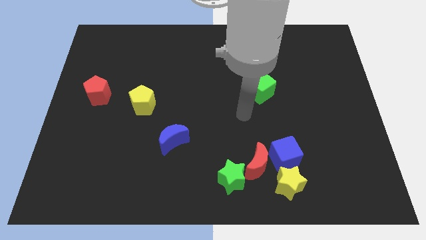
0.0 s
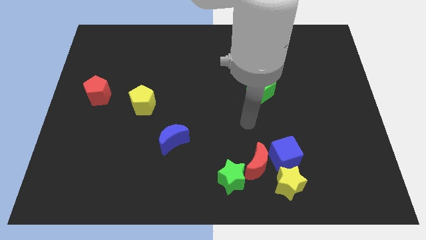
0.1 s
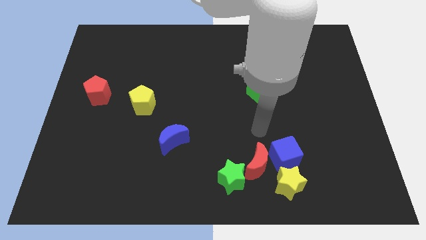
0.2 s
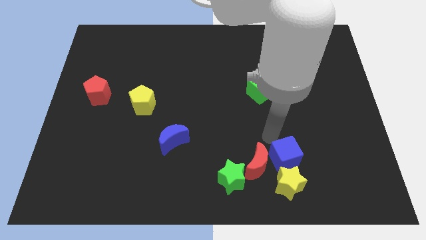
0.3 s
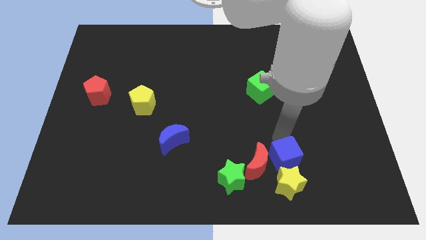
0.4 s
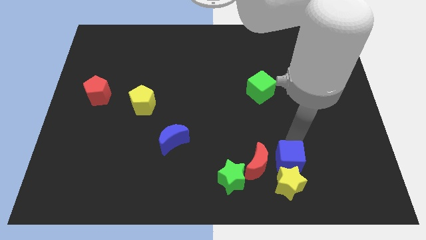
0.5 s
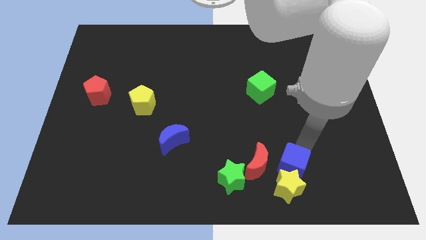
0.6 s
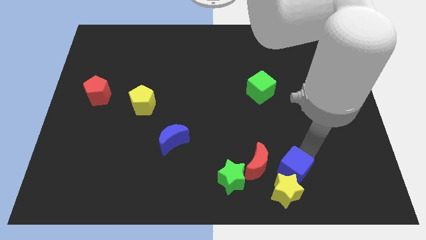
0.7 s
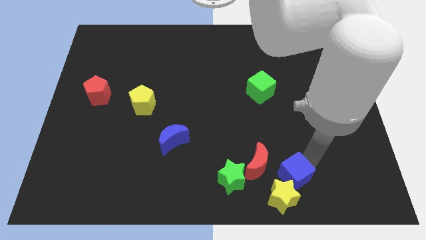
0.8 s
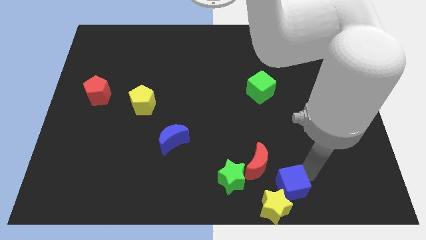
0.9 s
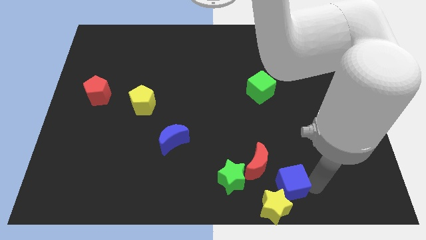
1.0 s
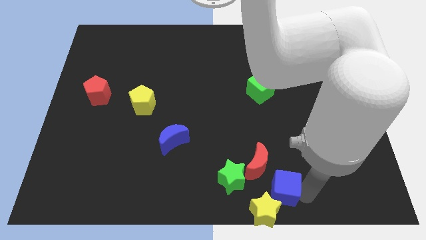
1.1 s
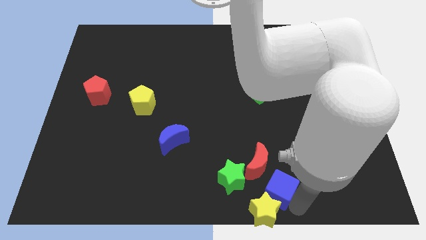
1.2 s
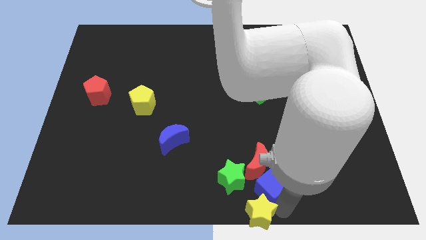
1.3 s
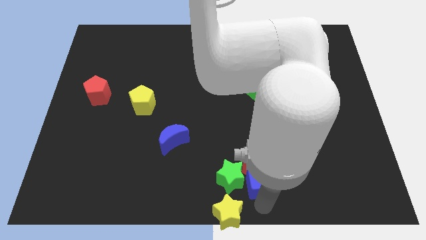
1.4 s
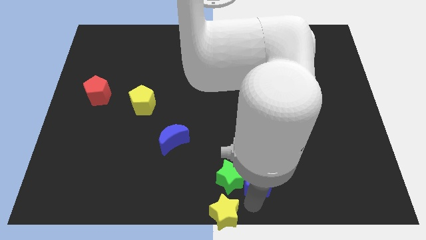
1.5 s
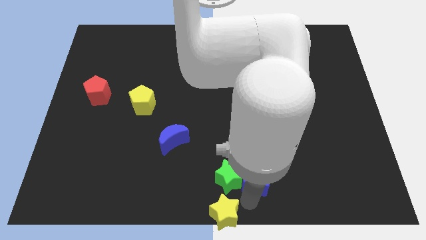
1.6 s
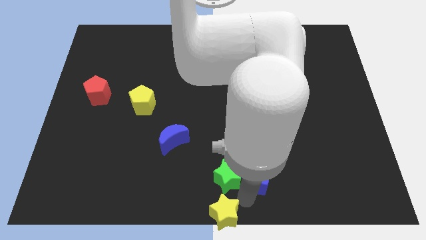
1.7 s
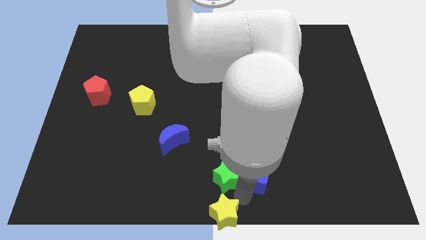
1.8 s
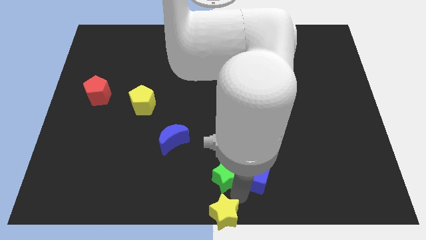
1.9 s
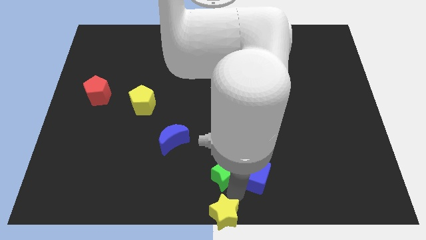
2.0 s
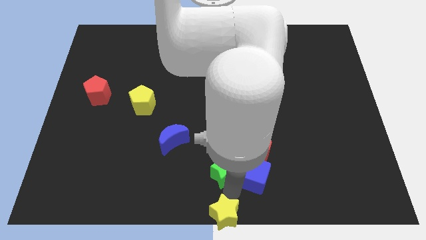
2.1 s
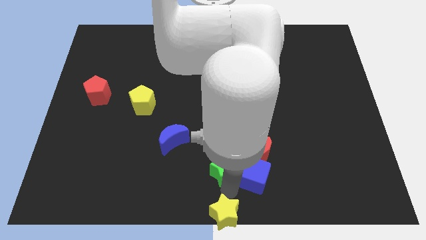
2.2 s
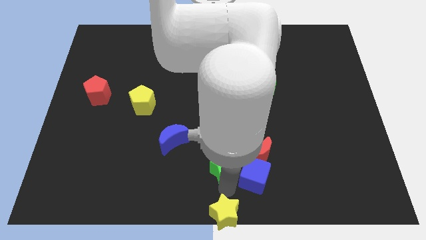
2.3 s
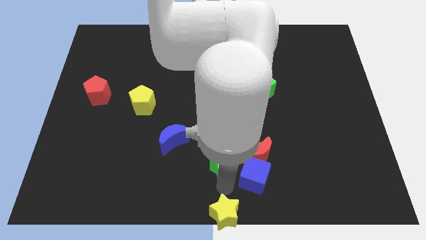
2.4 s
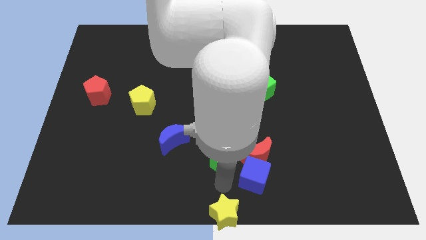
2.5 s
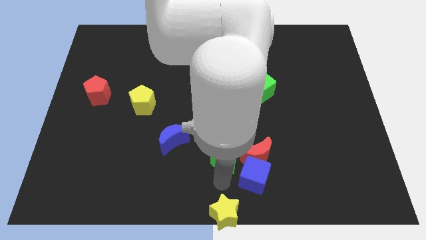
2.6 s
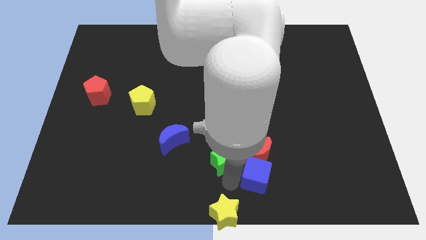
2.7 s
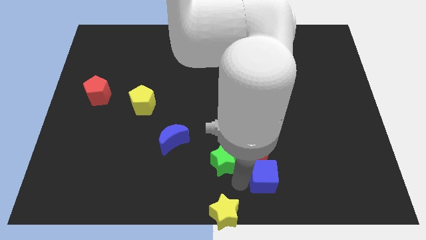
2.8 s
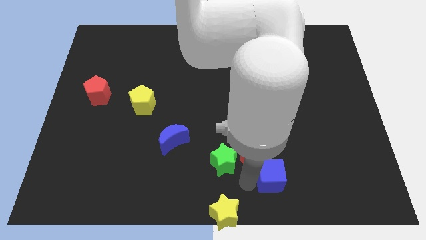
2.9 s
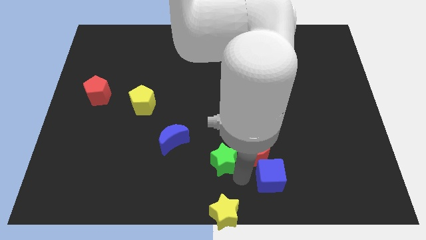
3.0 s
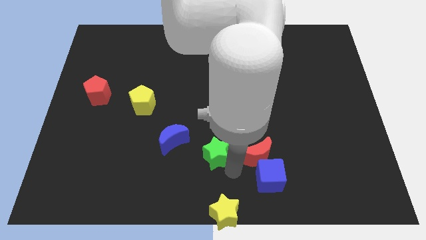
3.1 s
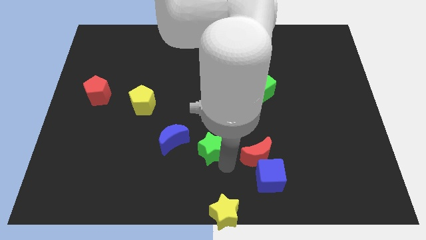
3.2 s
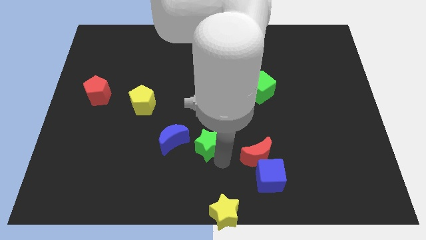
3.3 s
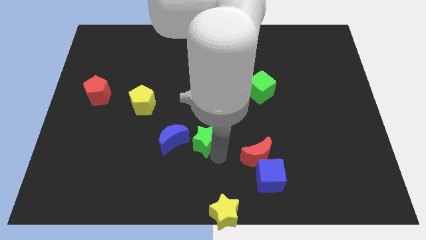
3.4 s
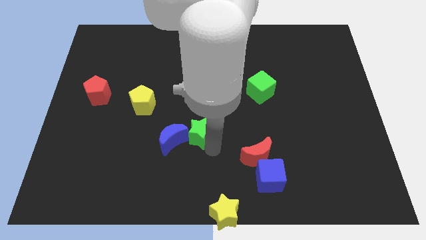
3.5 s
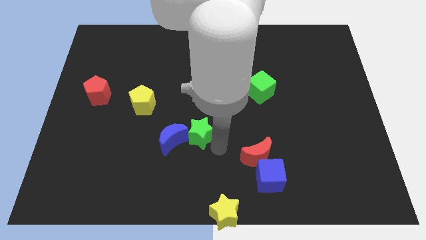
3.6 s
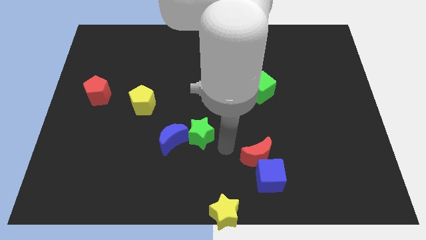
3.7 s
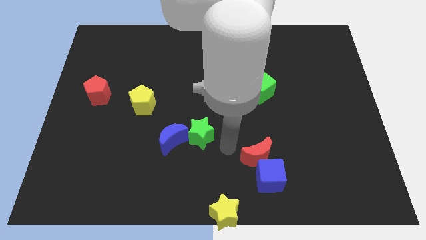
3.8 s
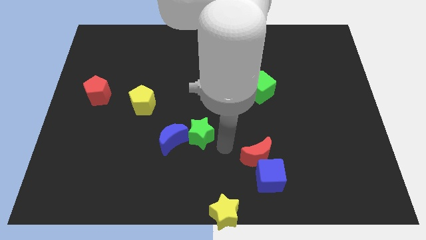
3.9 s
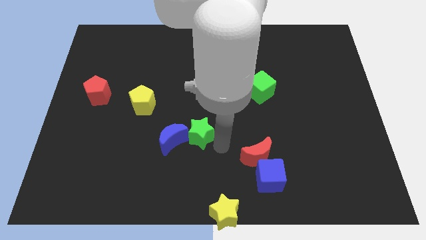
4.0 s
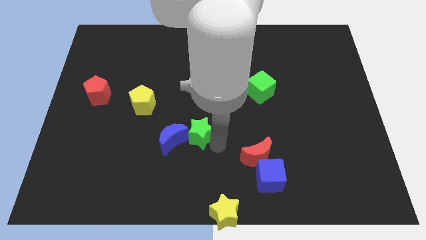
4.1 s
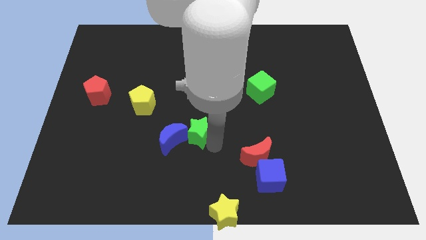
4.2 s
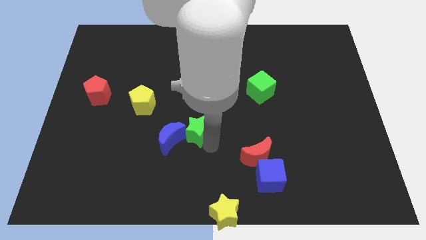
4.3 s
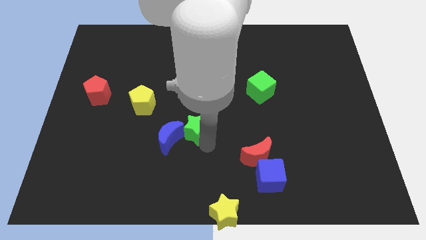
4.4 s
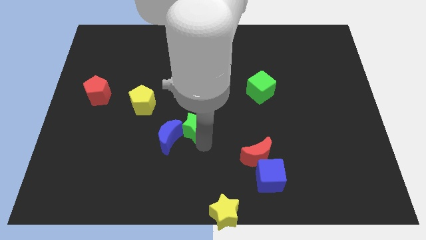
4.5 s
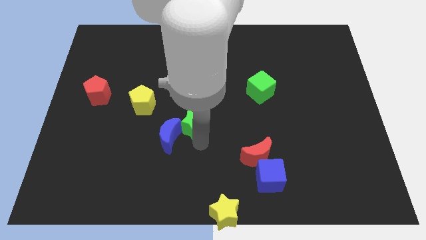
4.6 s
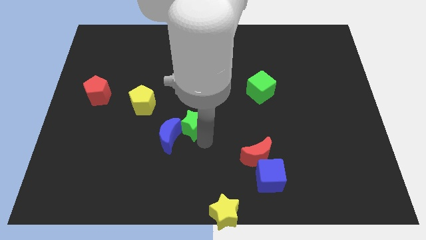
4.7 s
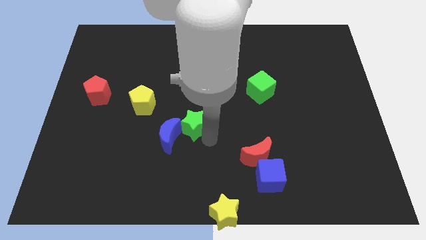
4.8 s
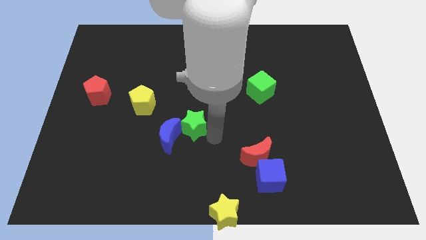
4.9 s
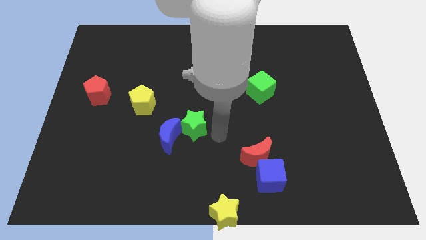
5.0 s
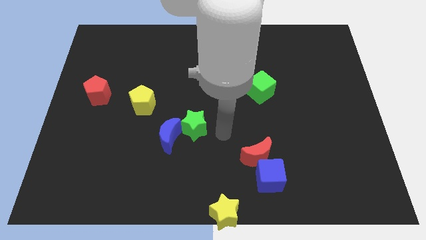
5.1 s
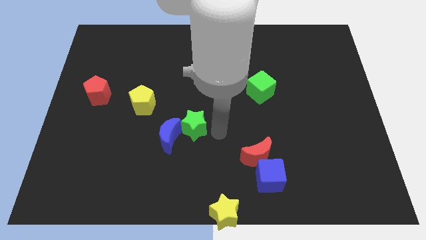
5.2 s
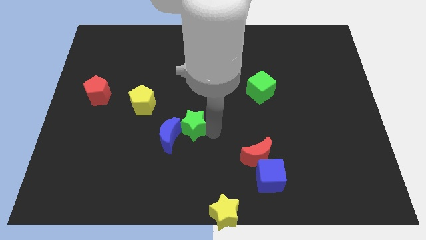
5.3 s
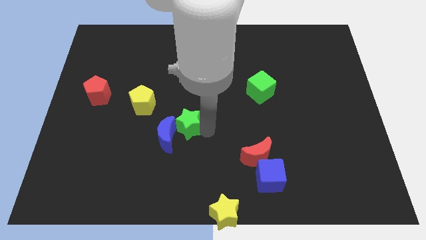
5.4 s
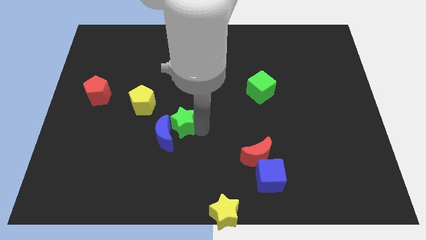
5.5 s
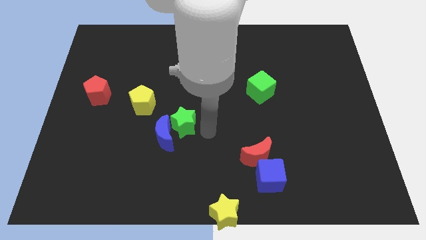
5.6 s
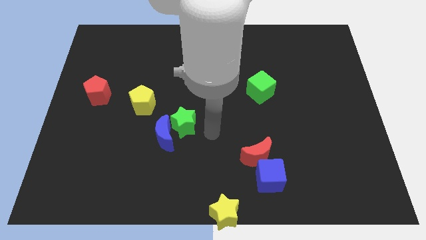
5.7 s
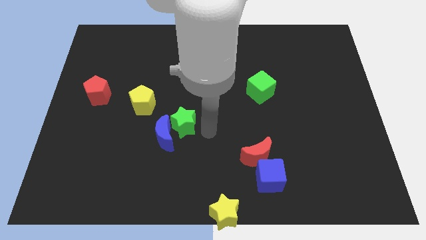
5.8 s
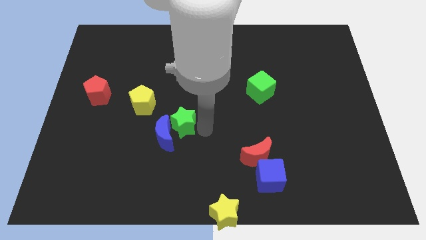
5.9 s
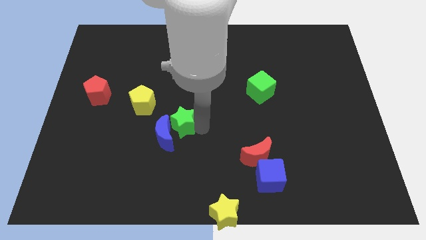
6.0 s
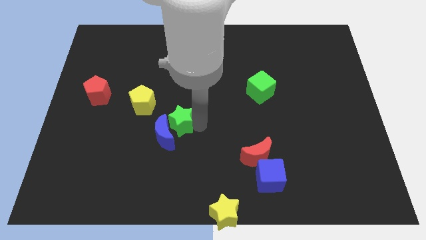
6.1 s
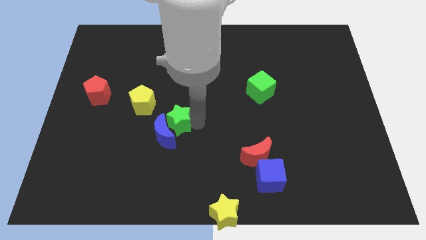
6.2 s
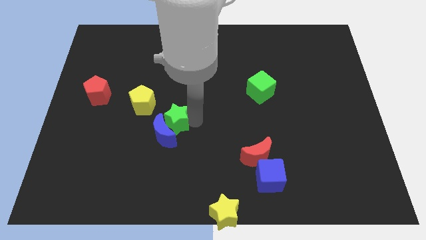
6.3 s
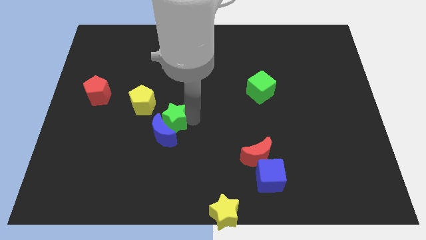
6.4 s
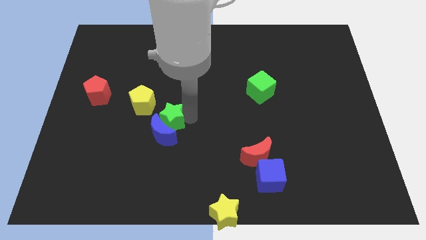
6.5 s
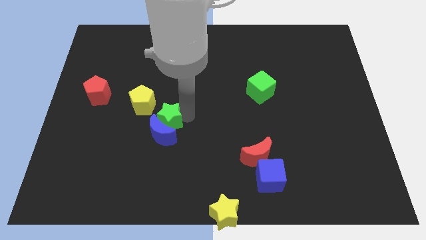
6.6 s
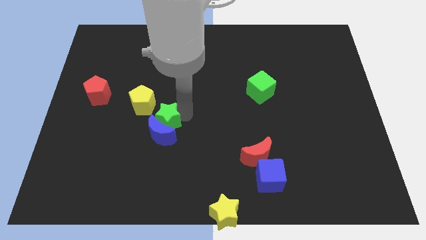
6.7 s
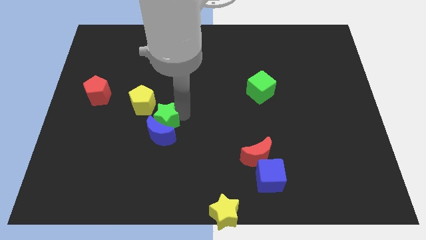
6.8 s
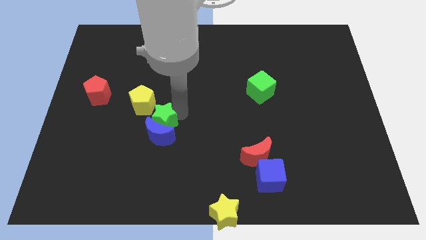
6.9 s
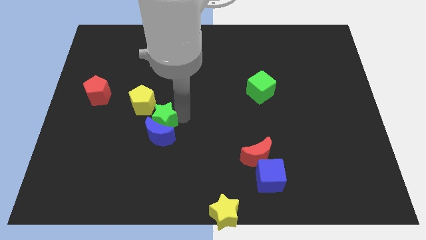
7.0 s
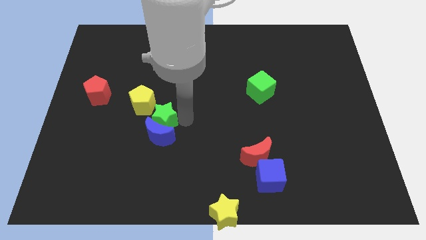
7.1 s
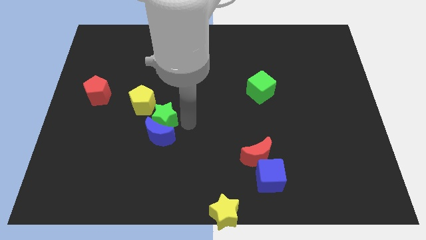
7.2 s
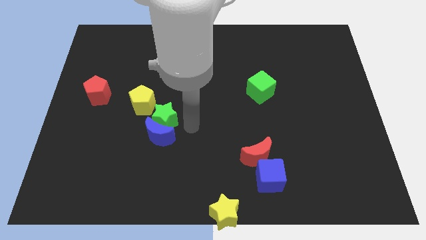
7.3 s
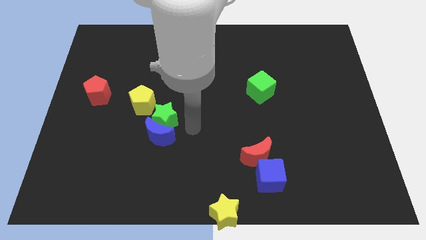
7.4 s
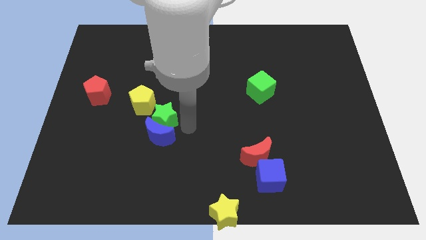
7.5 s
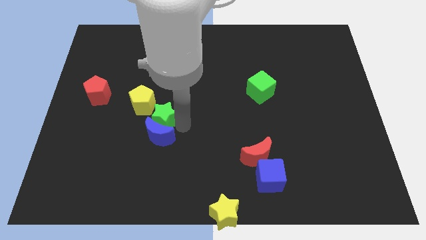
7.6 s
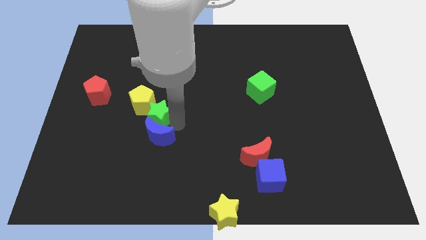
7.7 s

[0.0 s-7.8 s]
push the green star to the yellow pentagon
